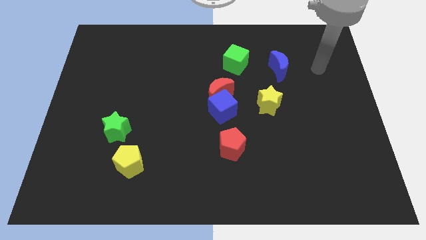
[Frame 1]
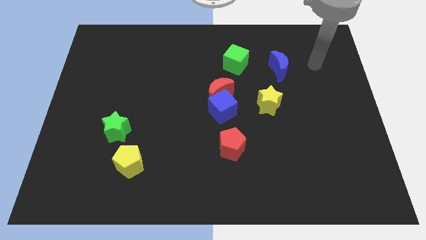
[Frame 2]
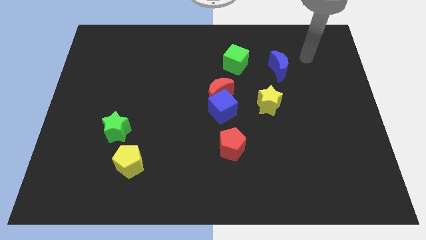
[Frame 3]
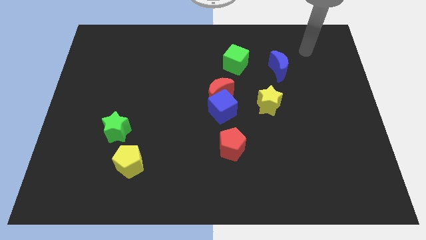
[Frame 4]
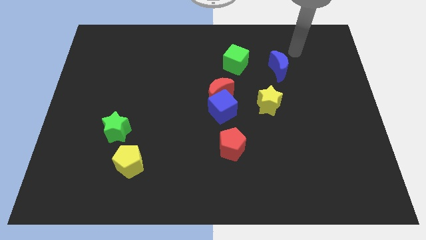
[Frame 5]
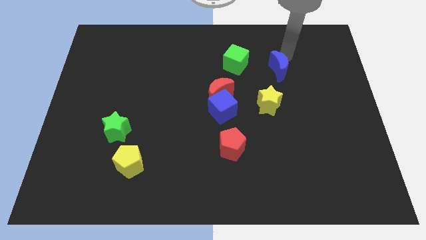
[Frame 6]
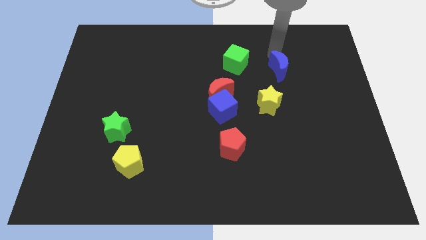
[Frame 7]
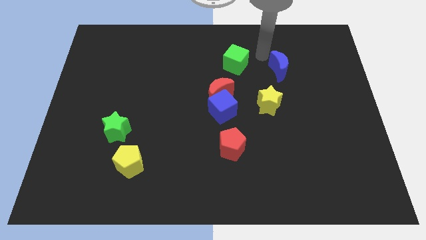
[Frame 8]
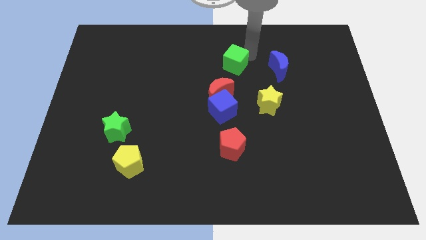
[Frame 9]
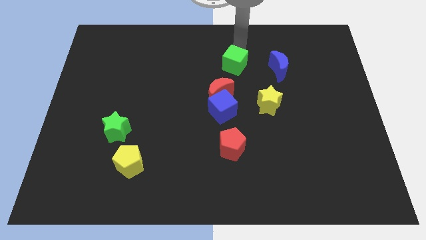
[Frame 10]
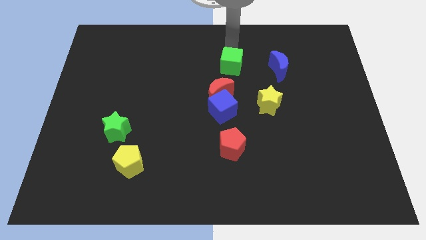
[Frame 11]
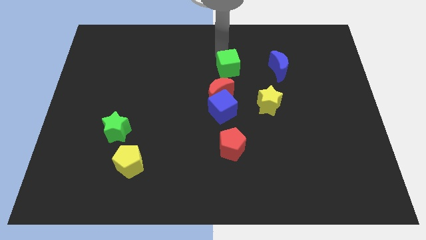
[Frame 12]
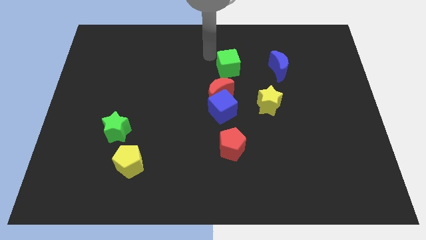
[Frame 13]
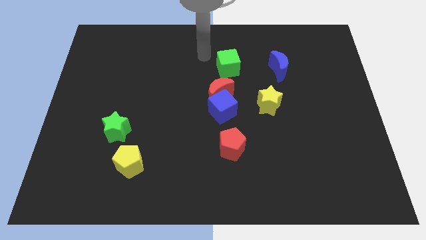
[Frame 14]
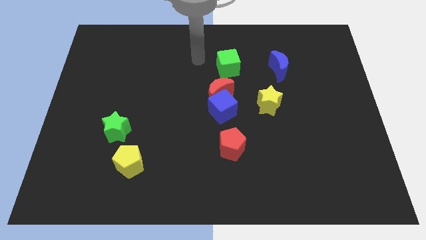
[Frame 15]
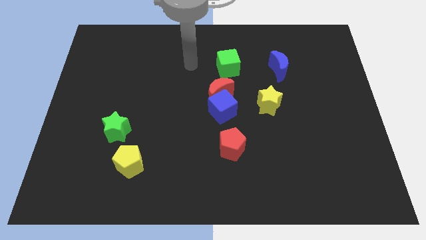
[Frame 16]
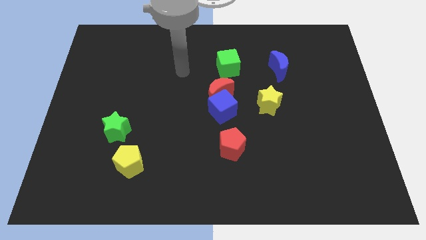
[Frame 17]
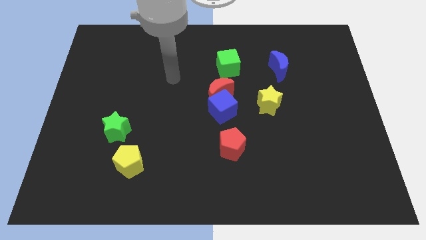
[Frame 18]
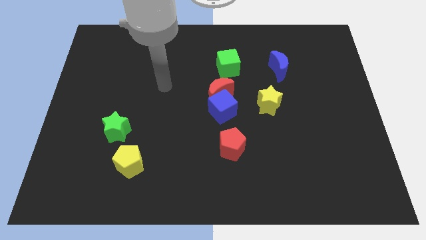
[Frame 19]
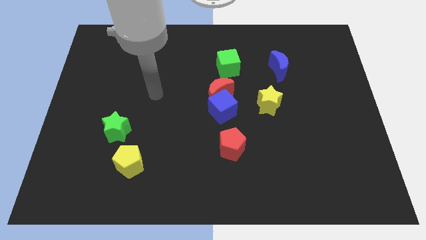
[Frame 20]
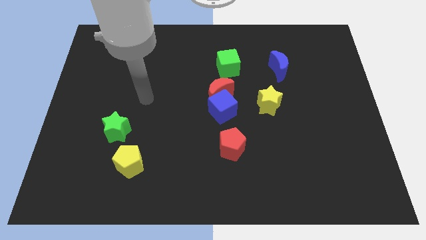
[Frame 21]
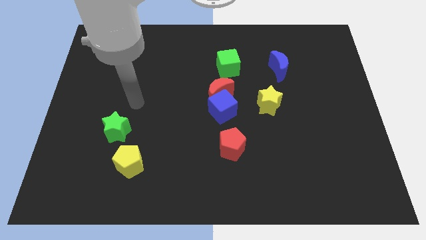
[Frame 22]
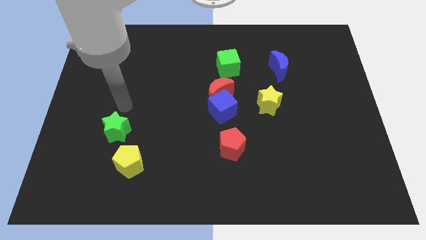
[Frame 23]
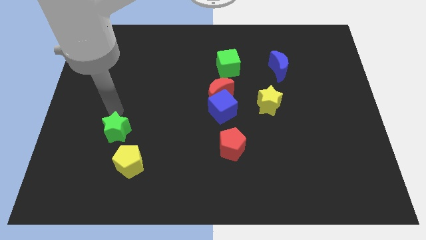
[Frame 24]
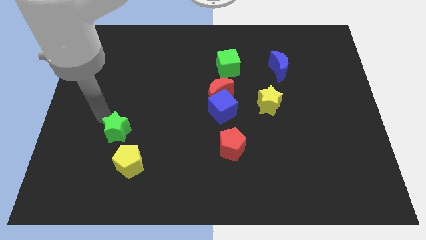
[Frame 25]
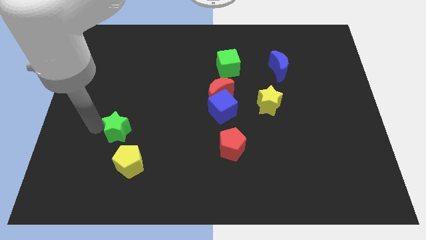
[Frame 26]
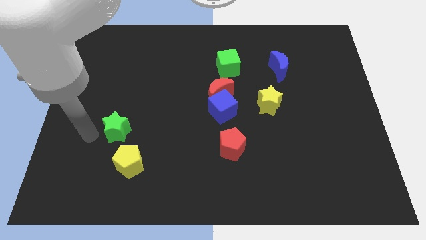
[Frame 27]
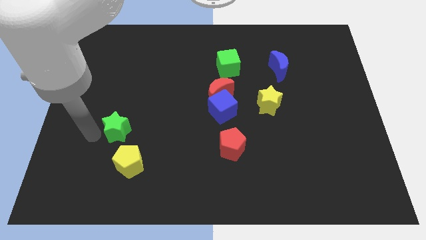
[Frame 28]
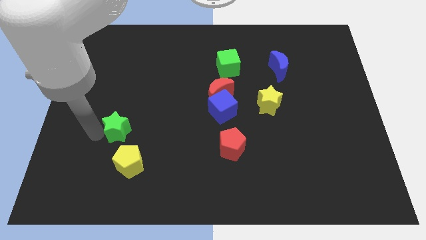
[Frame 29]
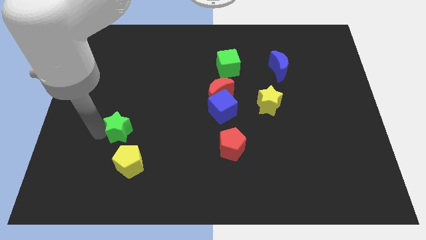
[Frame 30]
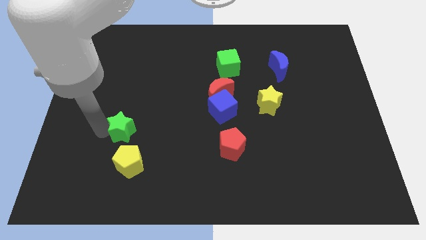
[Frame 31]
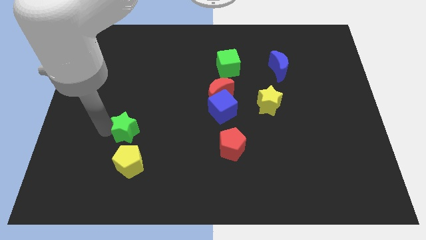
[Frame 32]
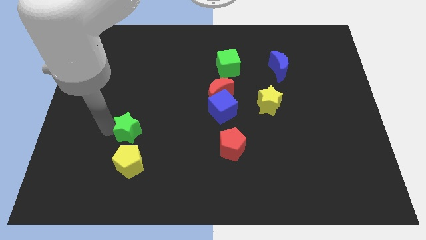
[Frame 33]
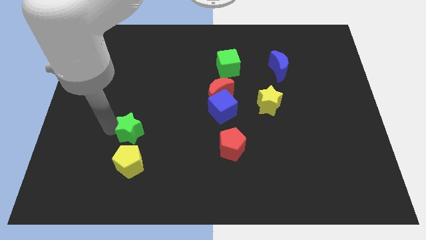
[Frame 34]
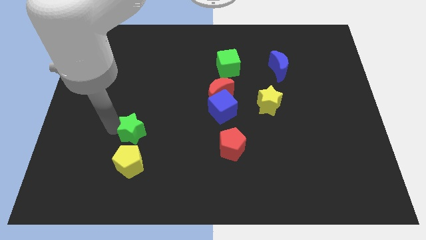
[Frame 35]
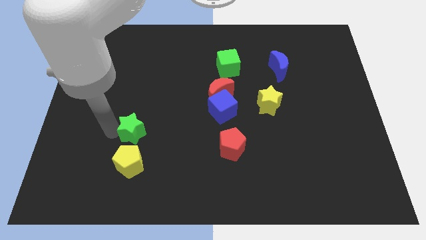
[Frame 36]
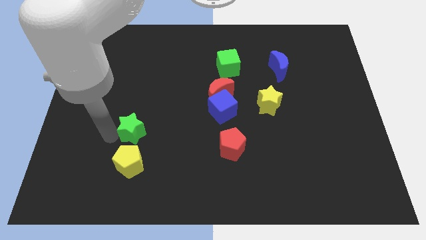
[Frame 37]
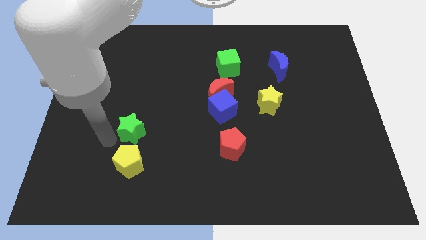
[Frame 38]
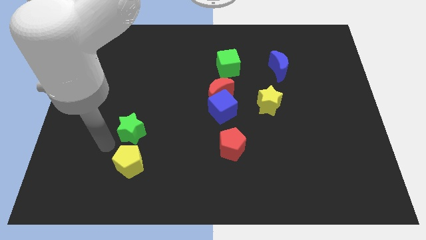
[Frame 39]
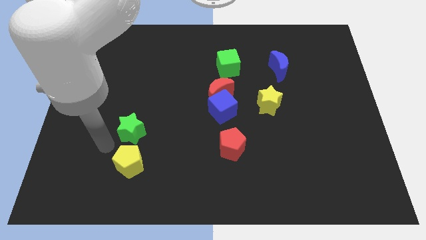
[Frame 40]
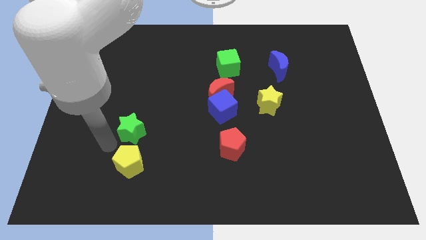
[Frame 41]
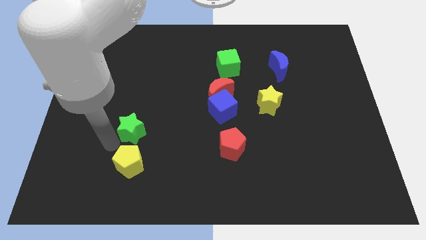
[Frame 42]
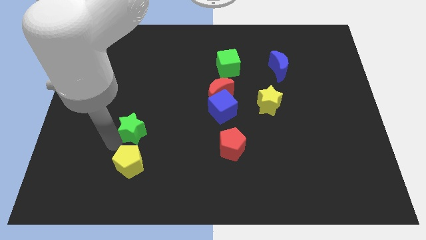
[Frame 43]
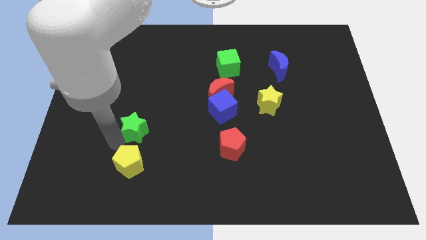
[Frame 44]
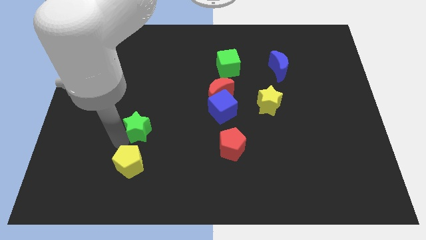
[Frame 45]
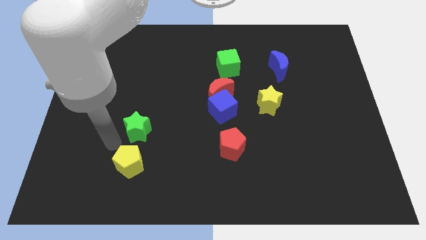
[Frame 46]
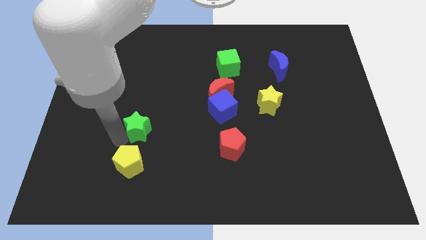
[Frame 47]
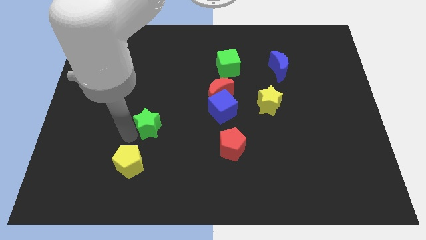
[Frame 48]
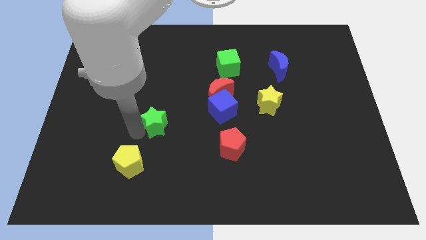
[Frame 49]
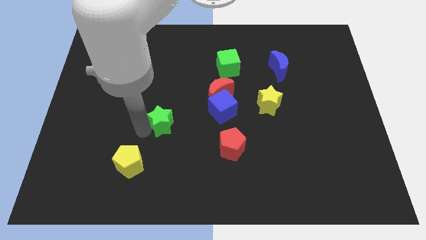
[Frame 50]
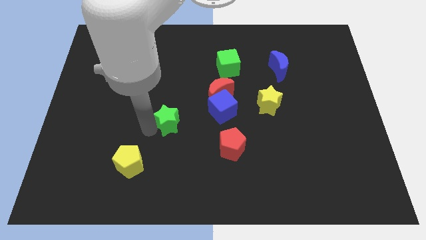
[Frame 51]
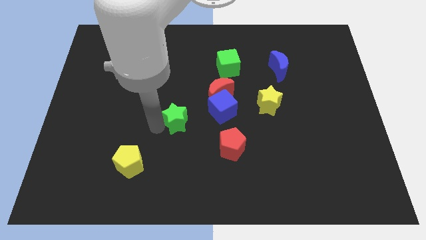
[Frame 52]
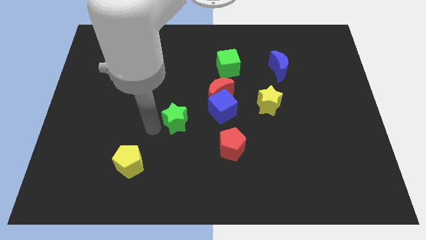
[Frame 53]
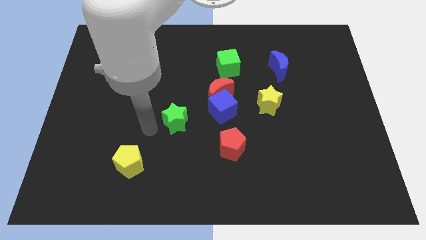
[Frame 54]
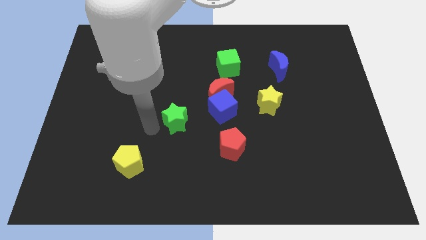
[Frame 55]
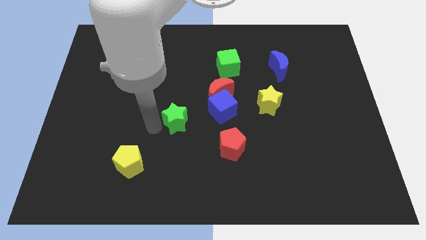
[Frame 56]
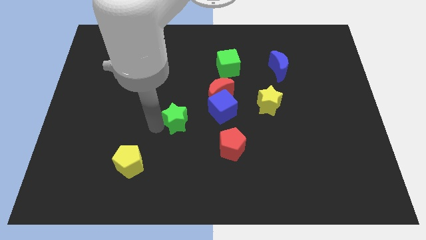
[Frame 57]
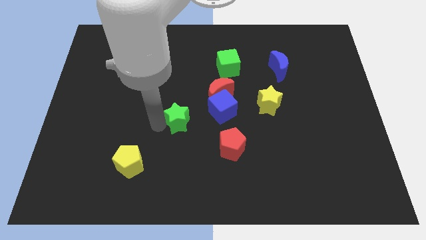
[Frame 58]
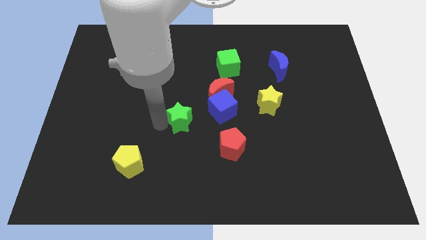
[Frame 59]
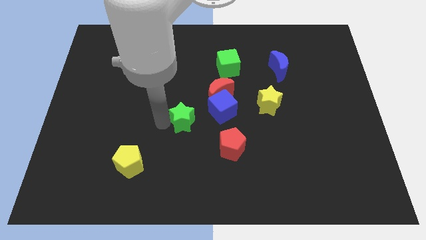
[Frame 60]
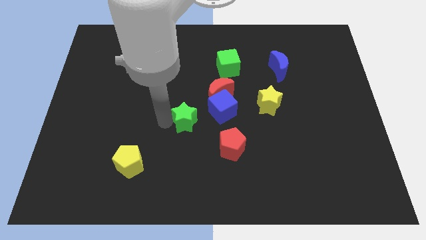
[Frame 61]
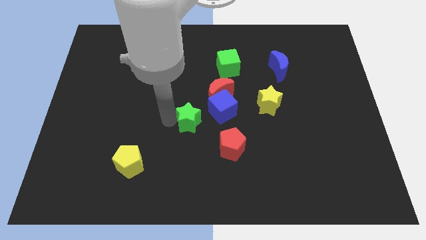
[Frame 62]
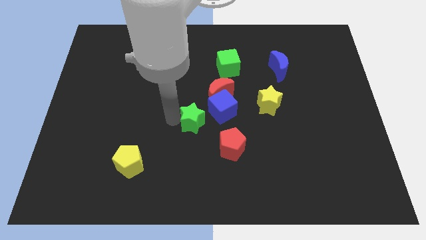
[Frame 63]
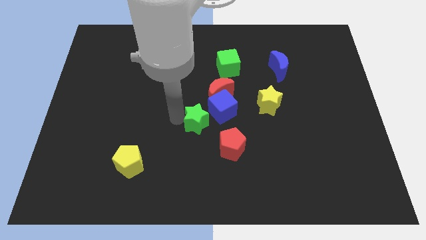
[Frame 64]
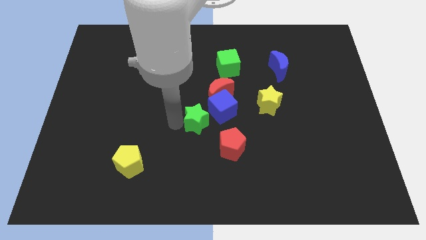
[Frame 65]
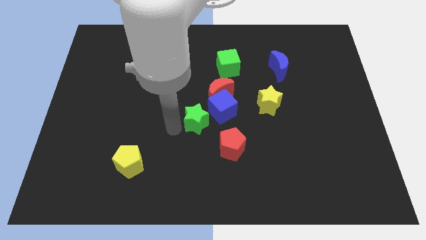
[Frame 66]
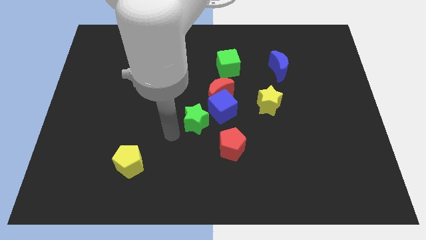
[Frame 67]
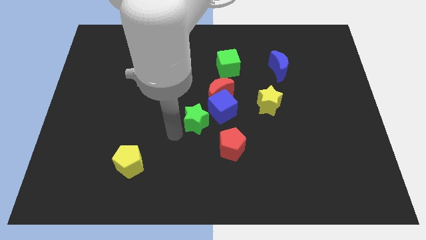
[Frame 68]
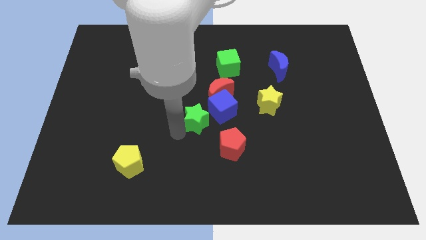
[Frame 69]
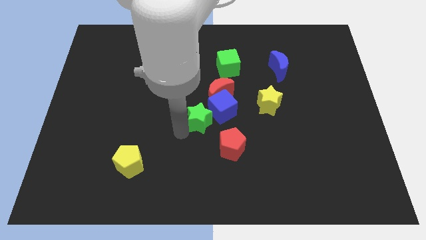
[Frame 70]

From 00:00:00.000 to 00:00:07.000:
move the green star to the blue cube
